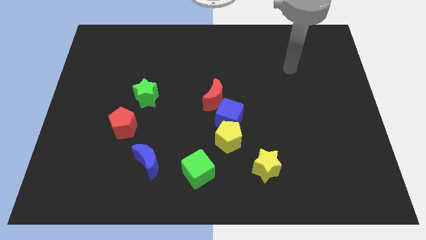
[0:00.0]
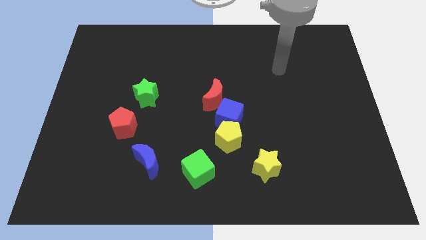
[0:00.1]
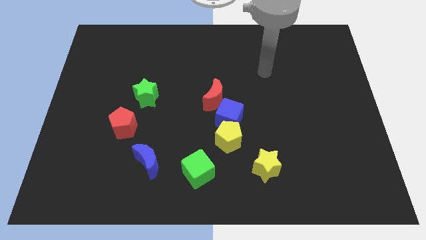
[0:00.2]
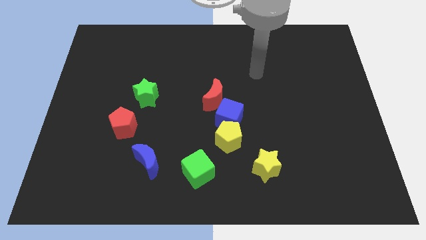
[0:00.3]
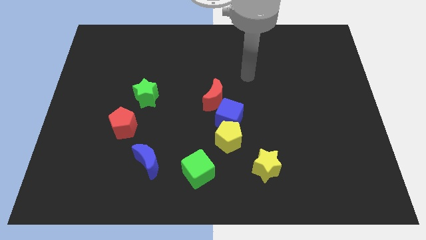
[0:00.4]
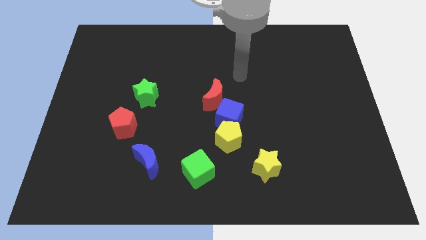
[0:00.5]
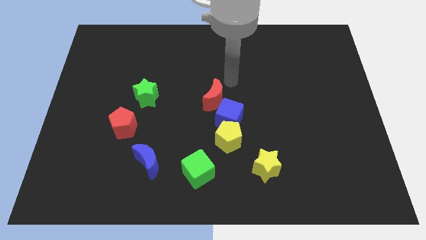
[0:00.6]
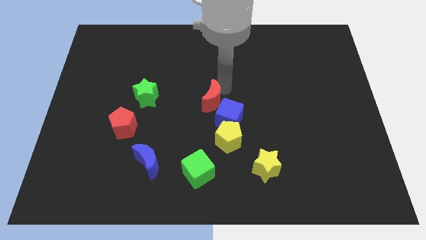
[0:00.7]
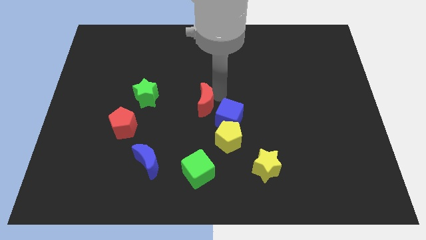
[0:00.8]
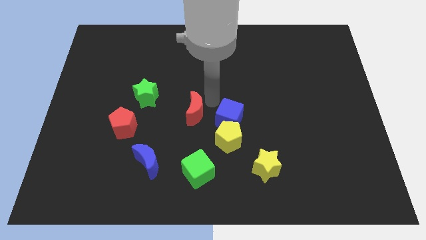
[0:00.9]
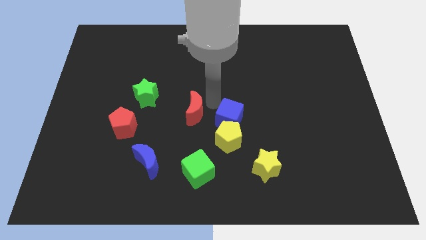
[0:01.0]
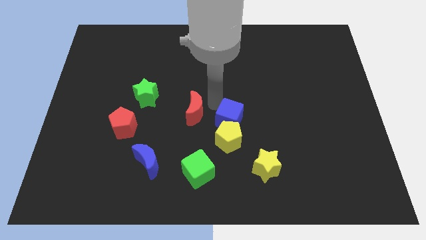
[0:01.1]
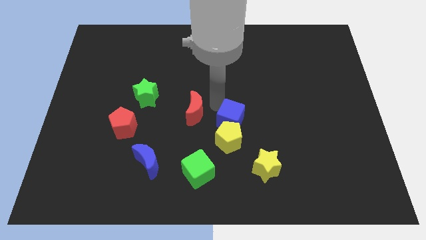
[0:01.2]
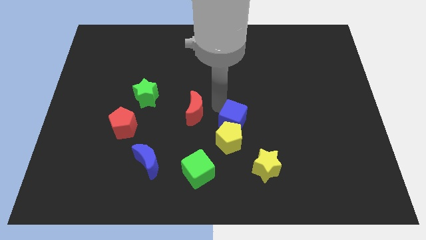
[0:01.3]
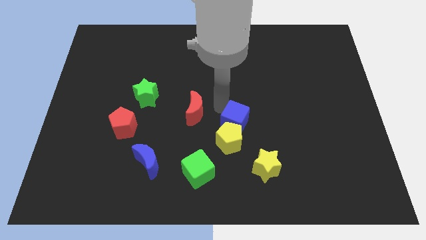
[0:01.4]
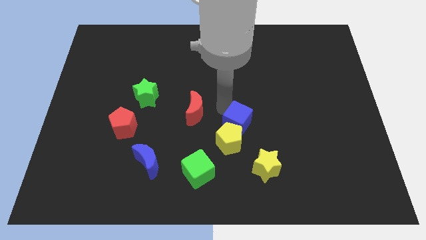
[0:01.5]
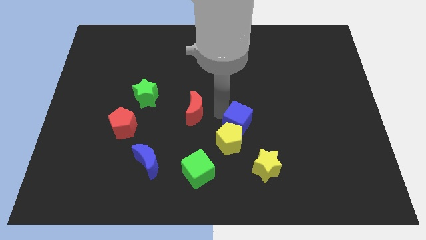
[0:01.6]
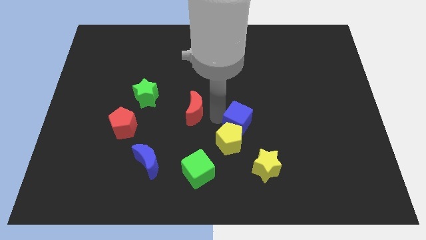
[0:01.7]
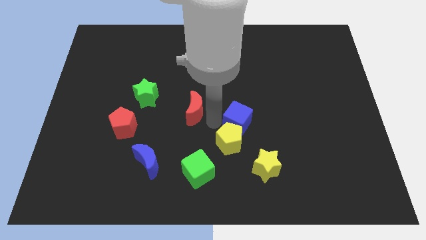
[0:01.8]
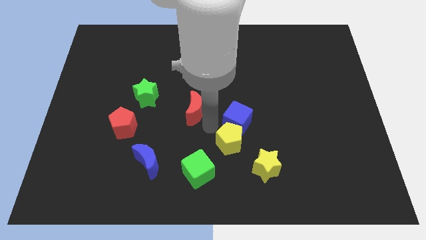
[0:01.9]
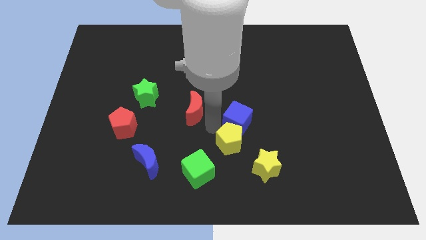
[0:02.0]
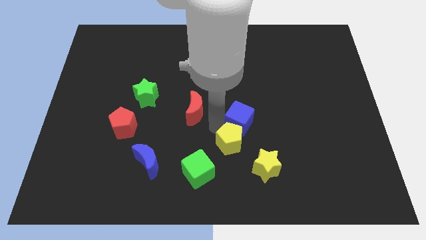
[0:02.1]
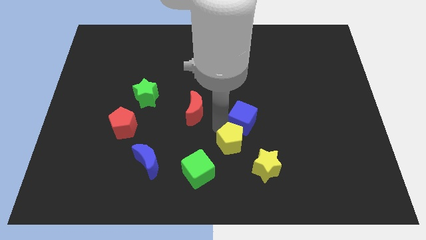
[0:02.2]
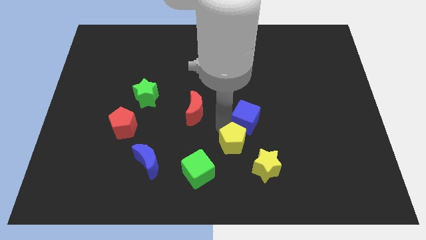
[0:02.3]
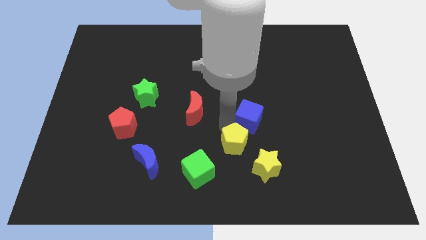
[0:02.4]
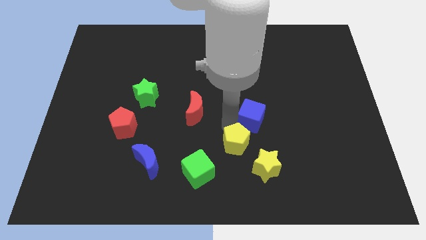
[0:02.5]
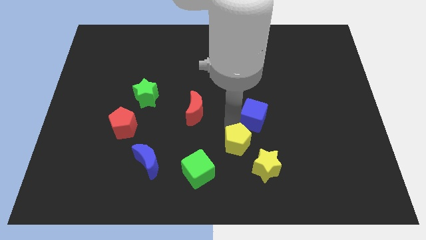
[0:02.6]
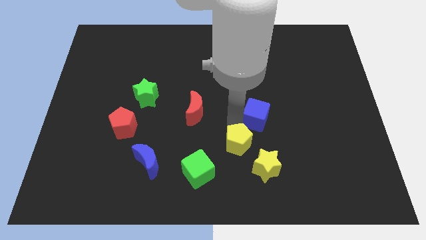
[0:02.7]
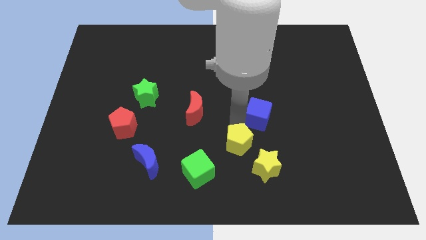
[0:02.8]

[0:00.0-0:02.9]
pull the blue cube apart from the yellow pentagon and red moon

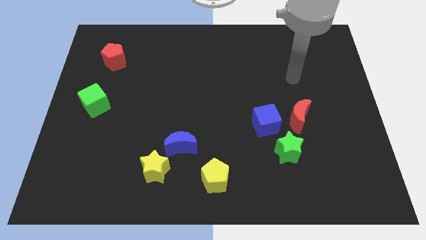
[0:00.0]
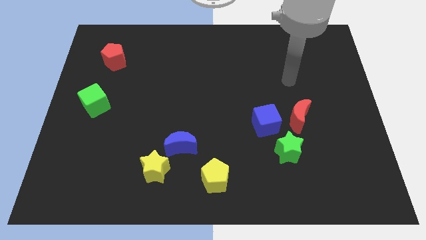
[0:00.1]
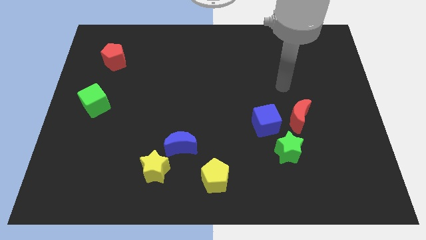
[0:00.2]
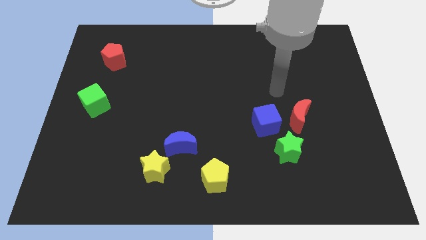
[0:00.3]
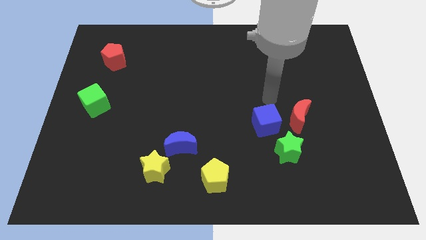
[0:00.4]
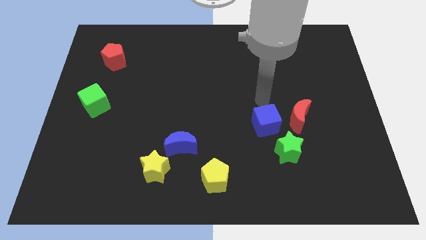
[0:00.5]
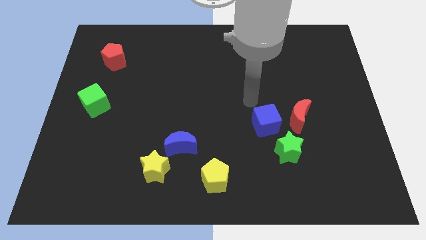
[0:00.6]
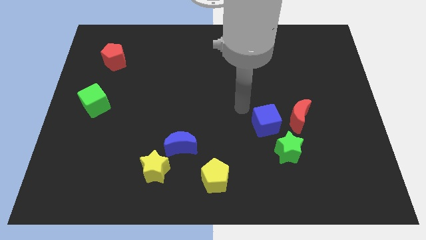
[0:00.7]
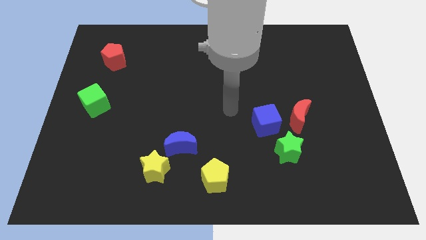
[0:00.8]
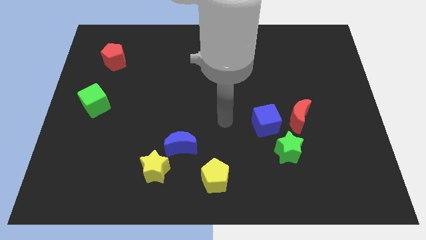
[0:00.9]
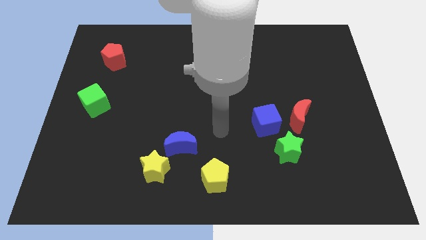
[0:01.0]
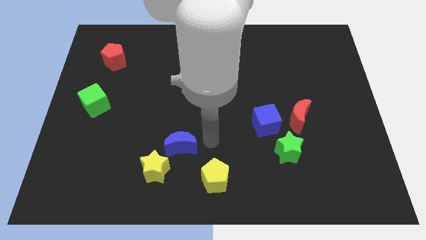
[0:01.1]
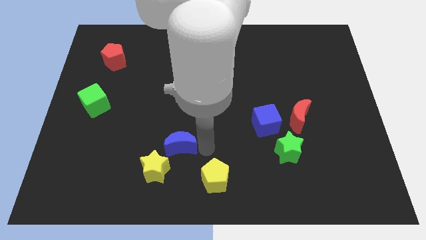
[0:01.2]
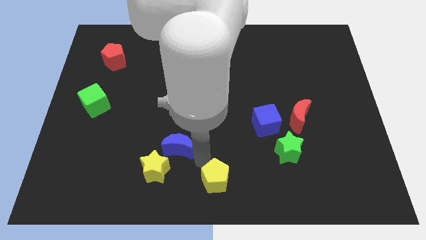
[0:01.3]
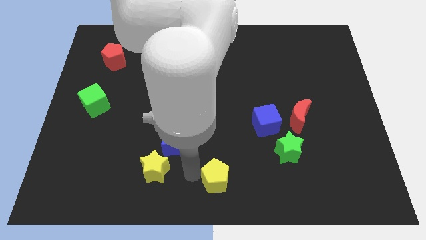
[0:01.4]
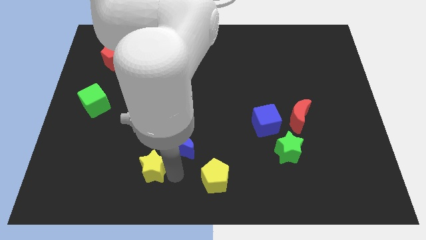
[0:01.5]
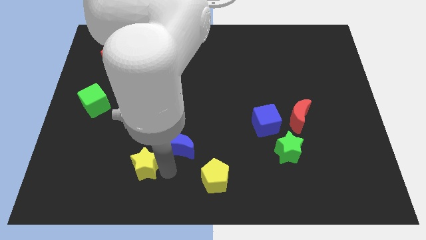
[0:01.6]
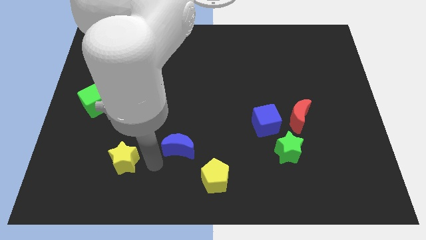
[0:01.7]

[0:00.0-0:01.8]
move the blue moon away from the yellow star

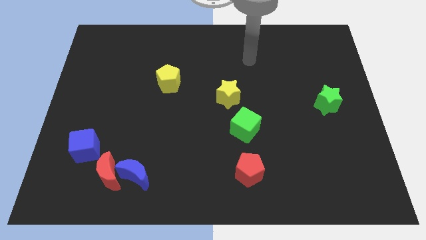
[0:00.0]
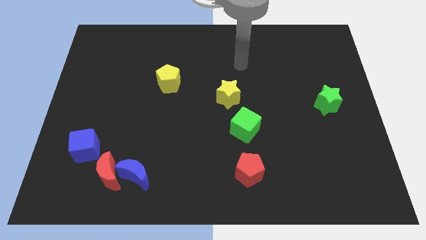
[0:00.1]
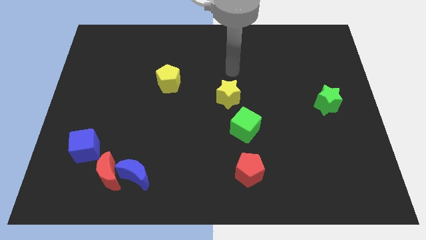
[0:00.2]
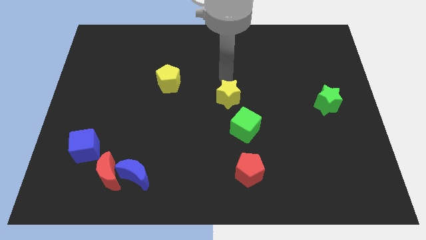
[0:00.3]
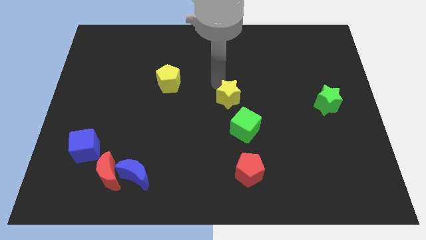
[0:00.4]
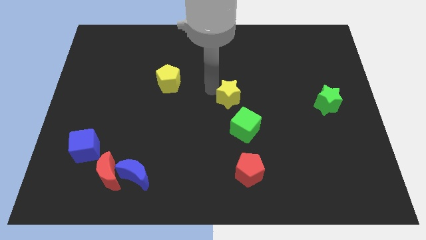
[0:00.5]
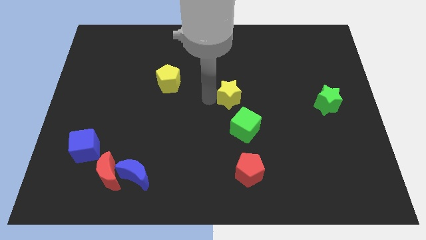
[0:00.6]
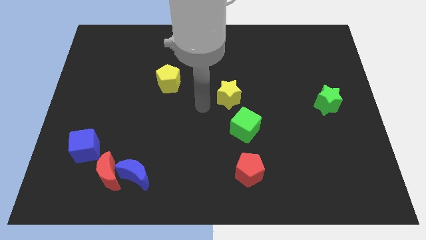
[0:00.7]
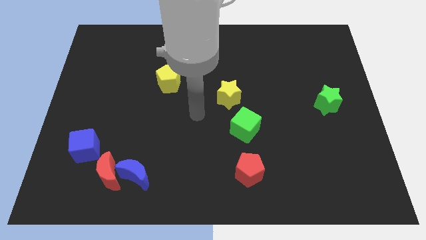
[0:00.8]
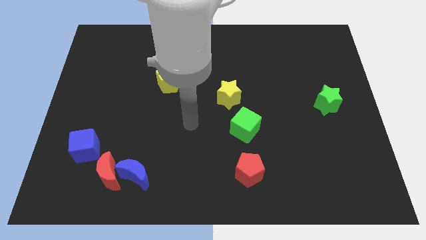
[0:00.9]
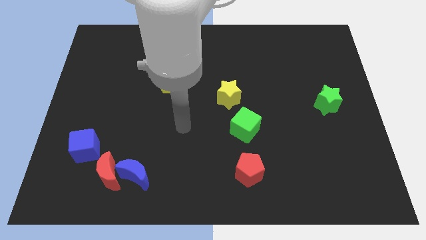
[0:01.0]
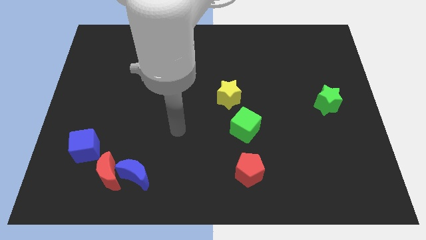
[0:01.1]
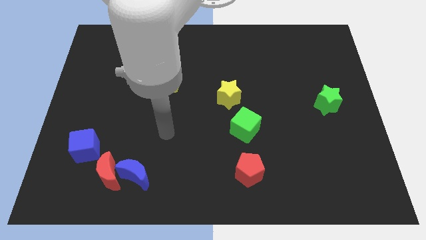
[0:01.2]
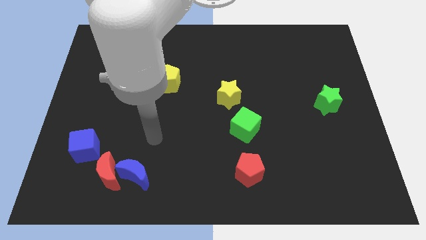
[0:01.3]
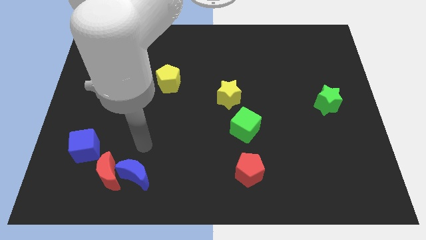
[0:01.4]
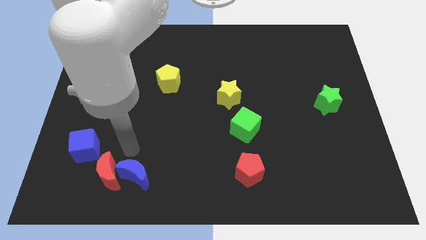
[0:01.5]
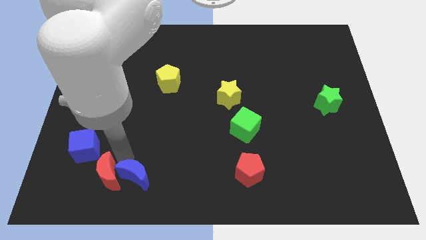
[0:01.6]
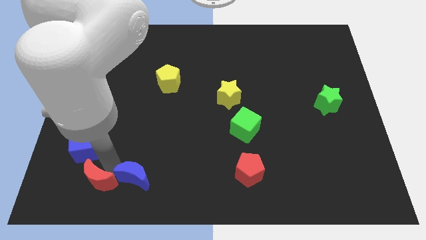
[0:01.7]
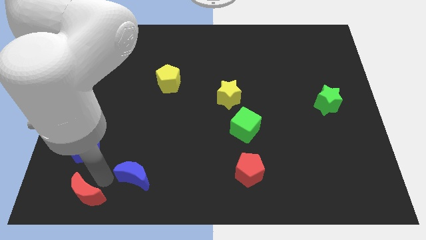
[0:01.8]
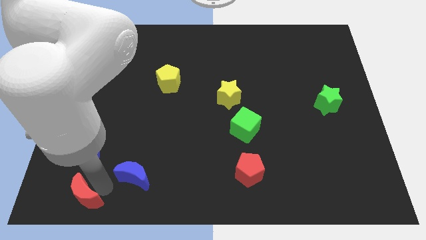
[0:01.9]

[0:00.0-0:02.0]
move the blue moon away from the red moon

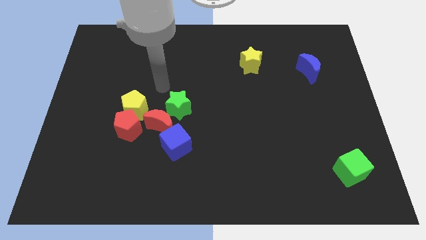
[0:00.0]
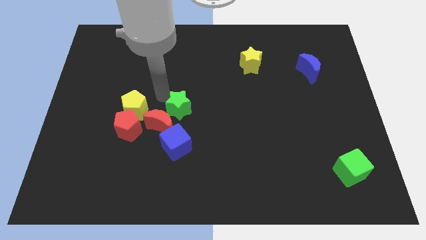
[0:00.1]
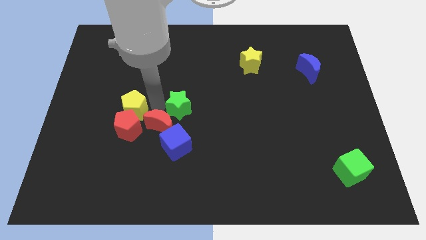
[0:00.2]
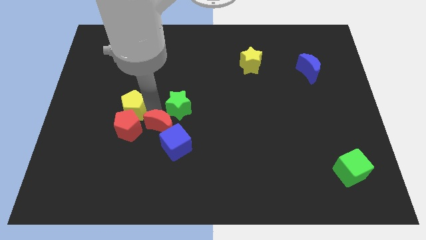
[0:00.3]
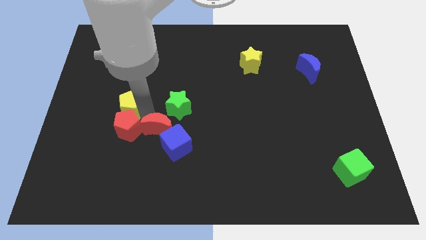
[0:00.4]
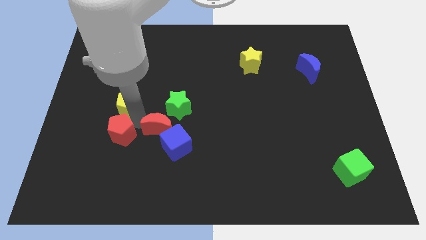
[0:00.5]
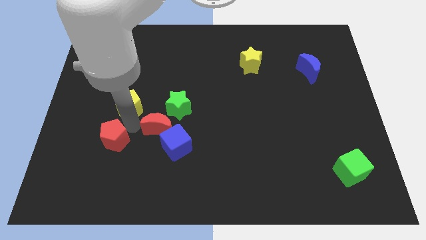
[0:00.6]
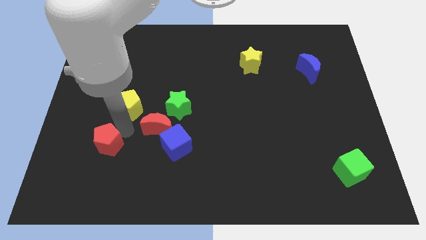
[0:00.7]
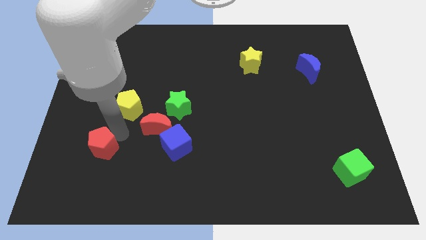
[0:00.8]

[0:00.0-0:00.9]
move the red pentagon away from the yellow pentagon and red moon

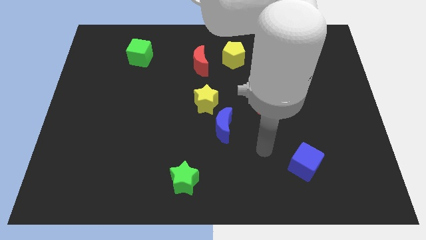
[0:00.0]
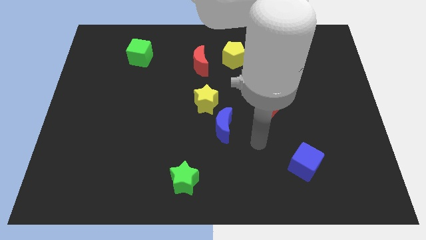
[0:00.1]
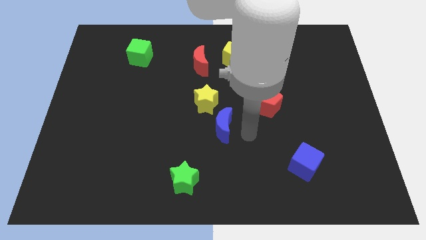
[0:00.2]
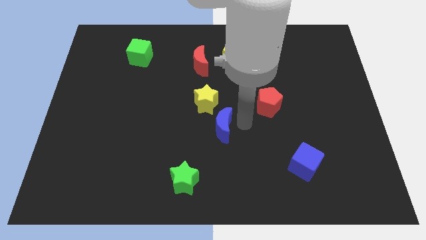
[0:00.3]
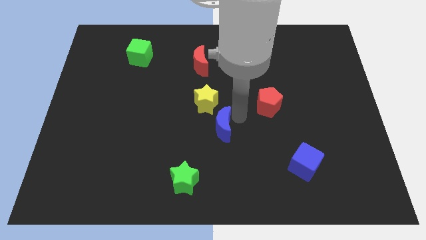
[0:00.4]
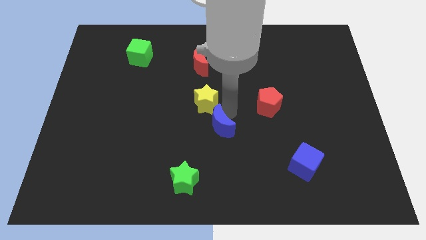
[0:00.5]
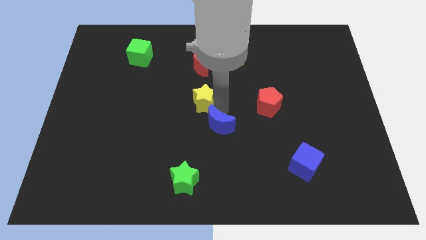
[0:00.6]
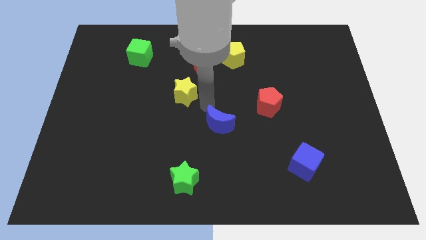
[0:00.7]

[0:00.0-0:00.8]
pull the blue moon apart from the yellow star

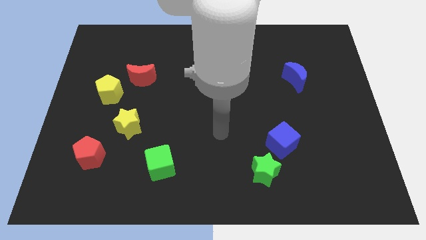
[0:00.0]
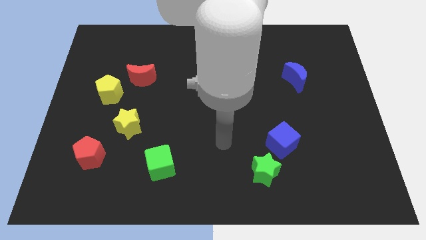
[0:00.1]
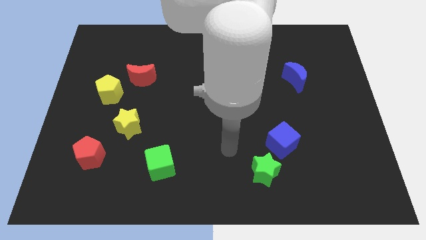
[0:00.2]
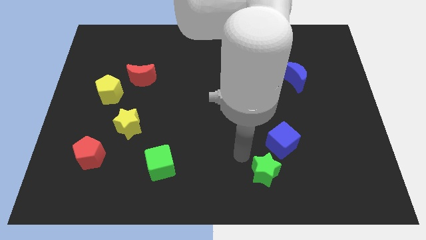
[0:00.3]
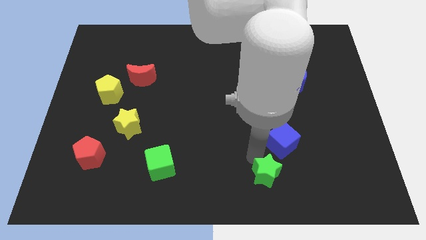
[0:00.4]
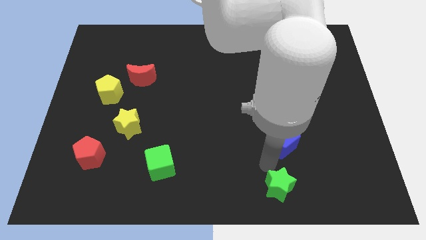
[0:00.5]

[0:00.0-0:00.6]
separate the blue cube from the green star

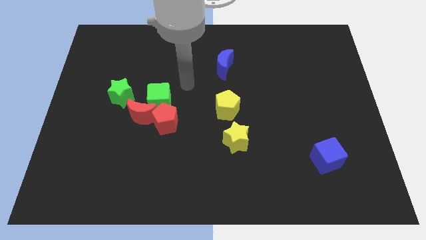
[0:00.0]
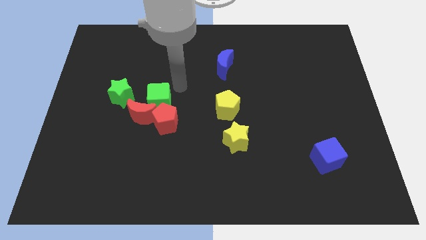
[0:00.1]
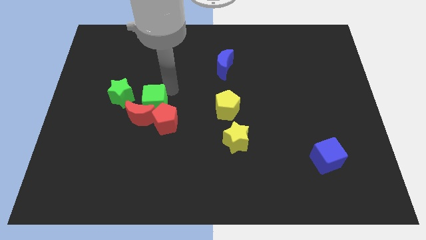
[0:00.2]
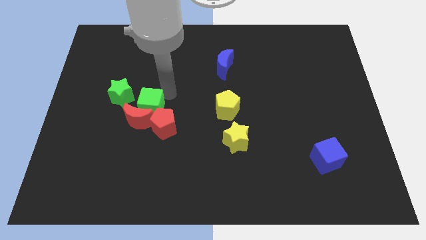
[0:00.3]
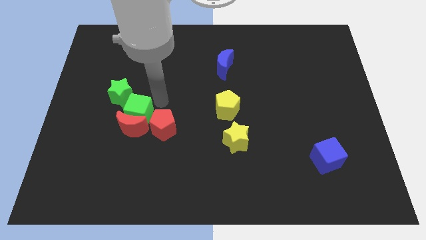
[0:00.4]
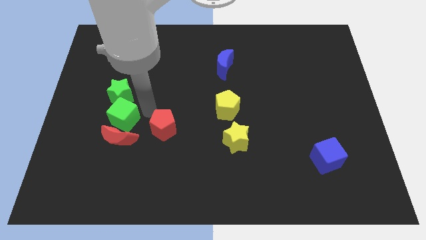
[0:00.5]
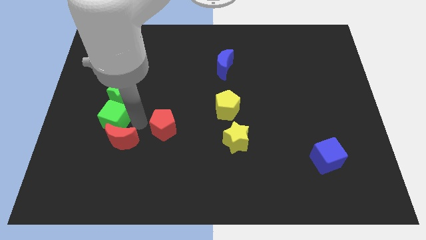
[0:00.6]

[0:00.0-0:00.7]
move the red pentagon away from the red moon and green cube
